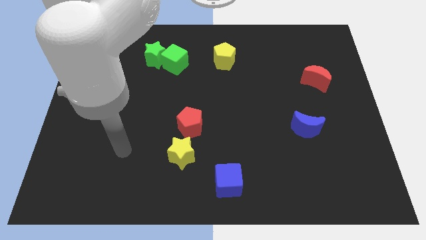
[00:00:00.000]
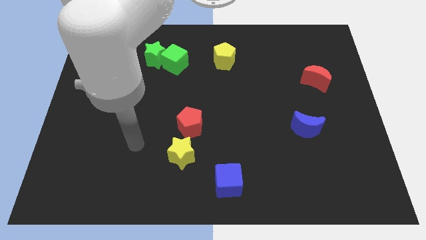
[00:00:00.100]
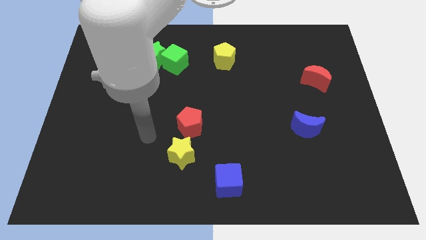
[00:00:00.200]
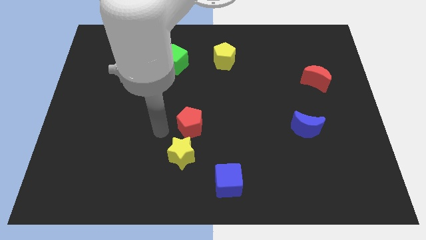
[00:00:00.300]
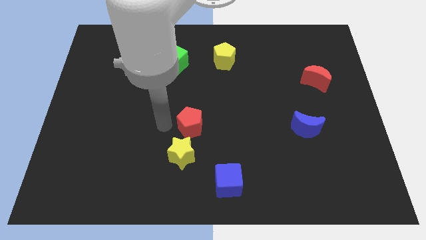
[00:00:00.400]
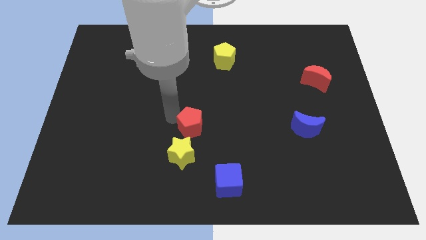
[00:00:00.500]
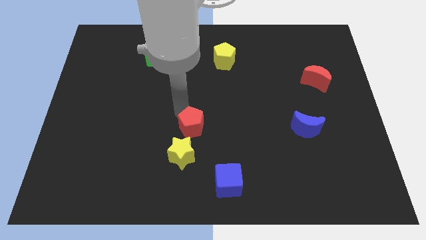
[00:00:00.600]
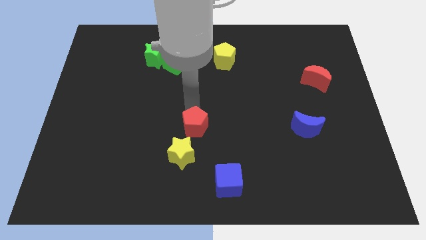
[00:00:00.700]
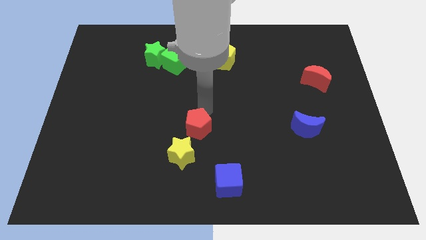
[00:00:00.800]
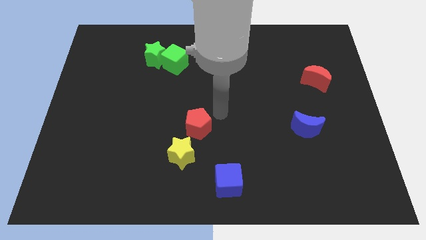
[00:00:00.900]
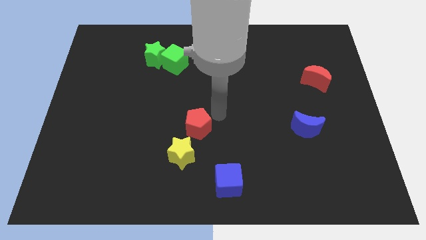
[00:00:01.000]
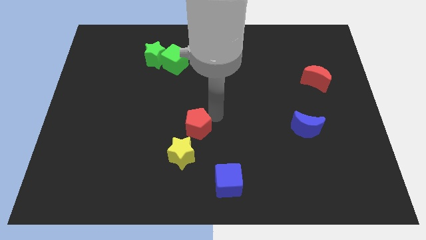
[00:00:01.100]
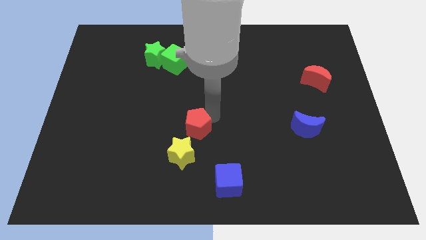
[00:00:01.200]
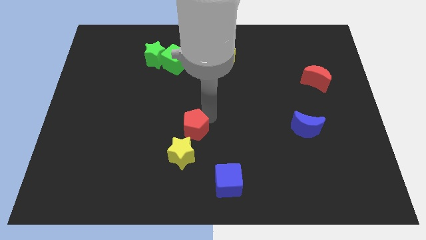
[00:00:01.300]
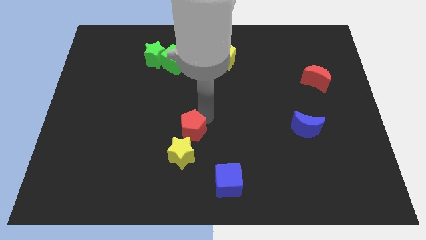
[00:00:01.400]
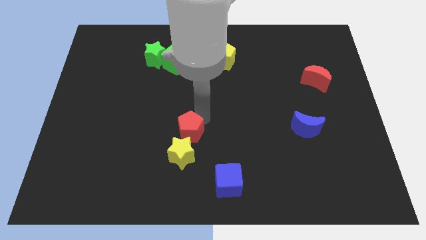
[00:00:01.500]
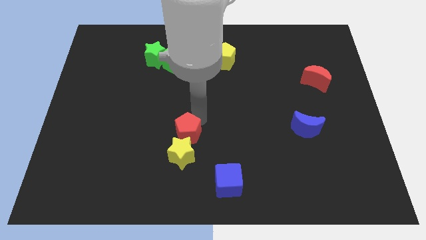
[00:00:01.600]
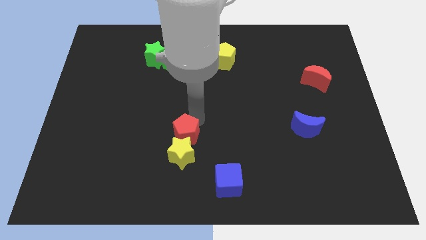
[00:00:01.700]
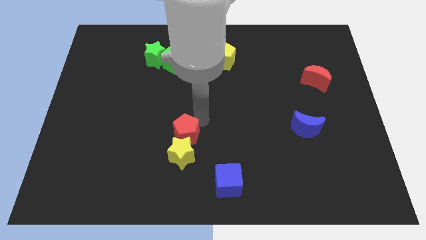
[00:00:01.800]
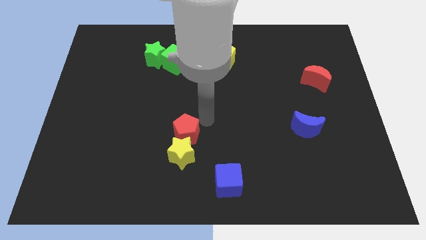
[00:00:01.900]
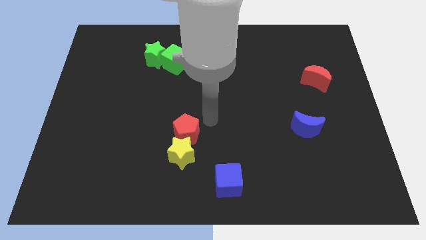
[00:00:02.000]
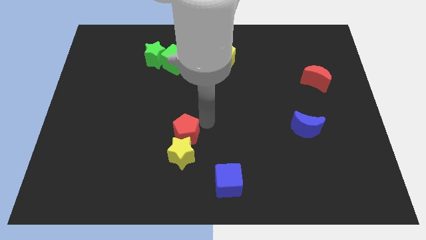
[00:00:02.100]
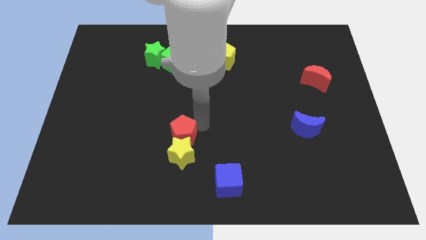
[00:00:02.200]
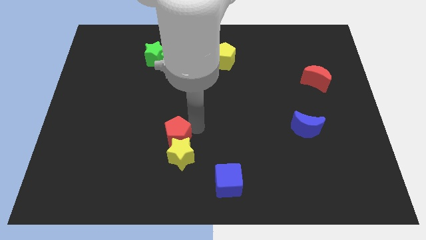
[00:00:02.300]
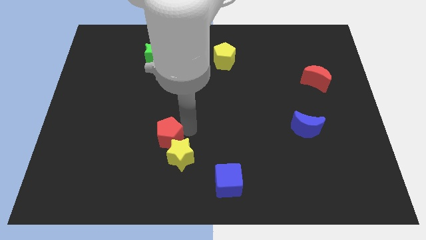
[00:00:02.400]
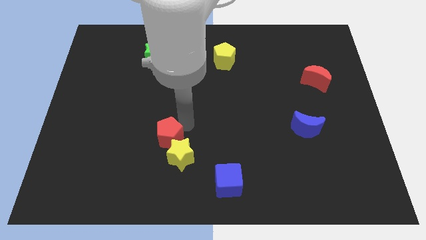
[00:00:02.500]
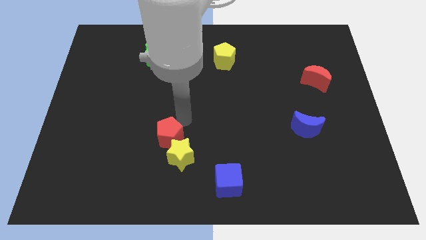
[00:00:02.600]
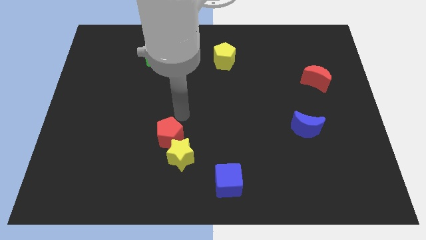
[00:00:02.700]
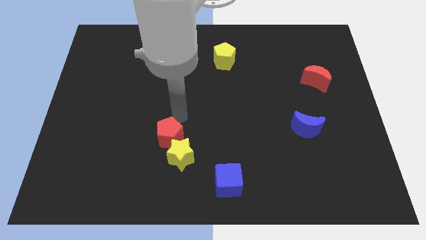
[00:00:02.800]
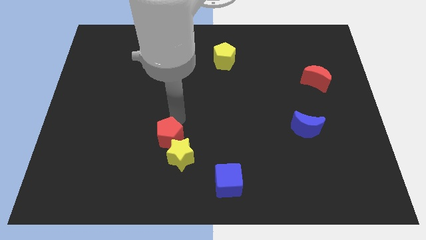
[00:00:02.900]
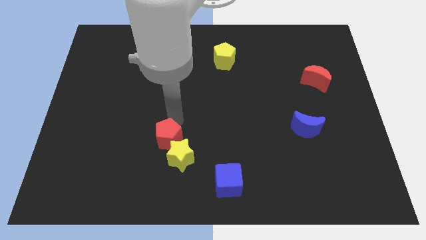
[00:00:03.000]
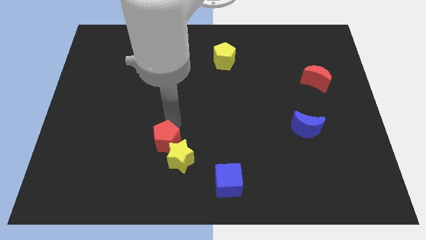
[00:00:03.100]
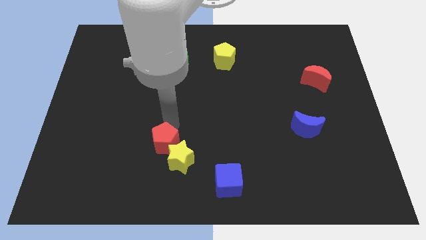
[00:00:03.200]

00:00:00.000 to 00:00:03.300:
push the red pentagon downwards and to the left a bit

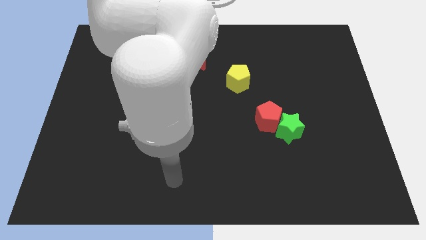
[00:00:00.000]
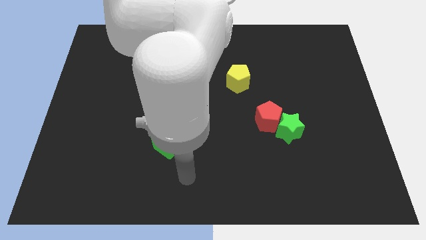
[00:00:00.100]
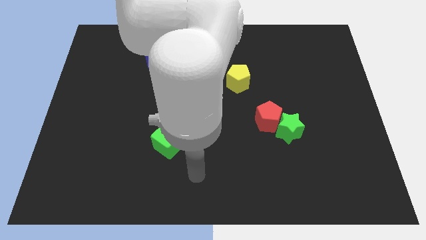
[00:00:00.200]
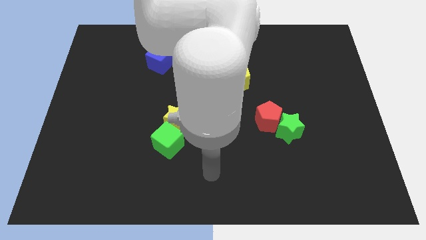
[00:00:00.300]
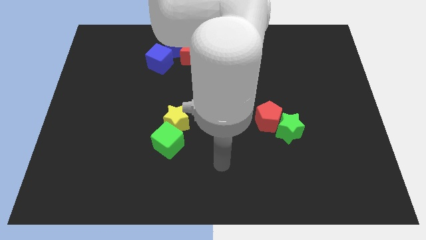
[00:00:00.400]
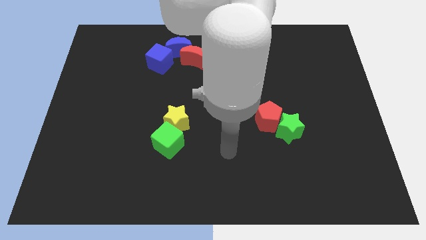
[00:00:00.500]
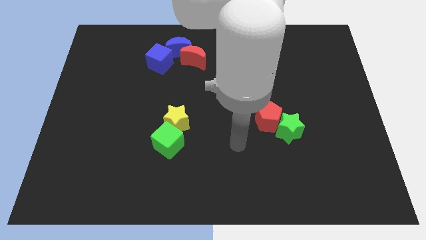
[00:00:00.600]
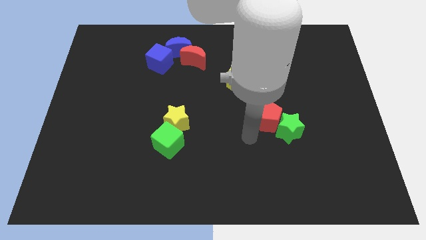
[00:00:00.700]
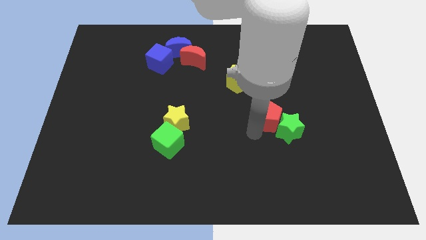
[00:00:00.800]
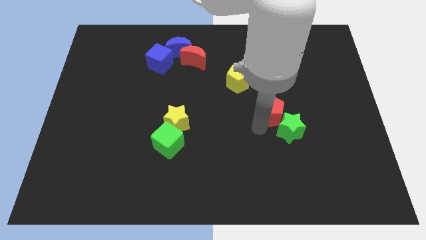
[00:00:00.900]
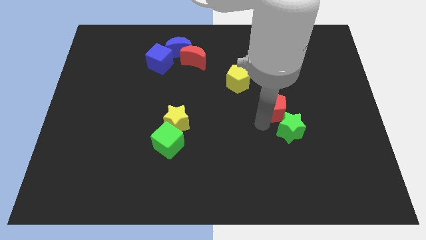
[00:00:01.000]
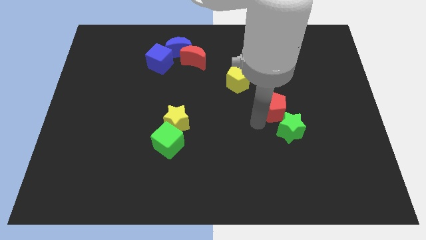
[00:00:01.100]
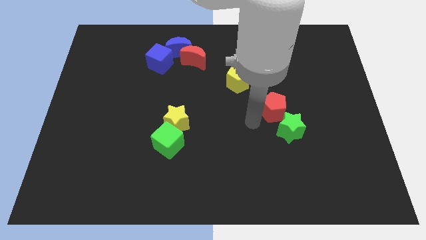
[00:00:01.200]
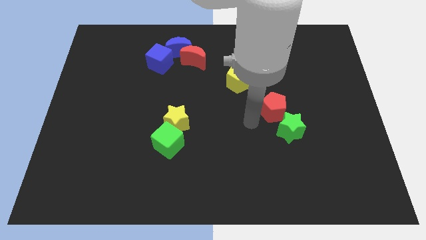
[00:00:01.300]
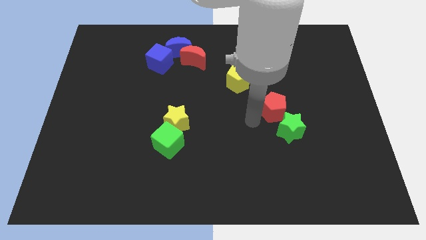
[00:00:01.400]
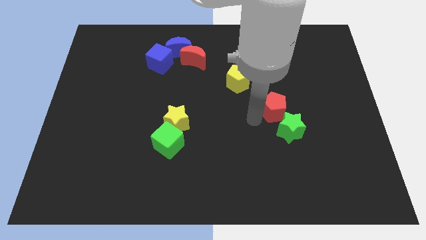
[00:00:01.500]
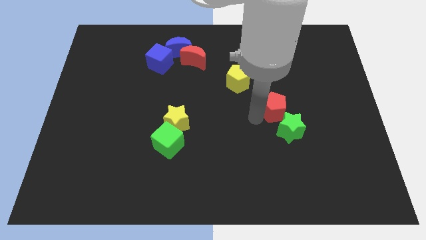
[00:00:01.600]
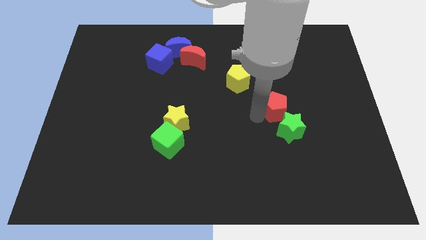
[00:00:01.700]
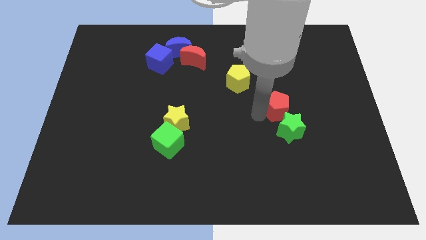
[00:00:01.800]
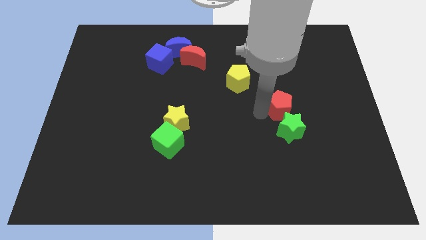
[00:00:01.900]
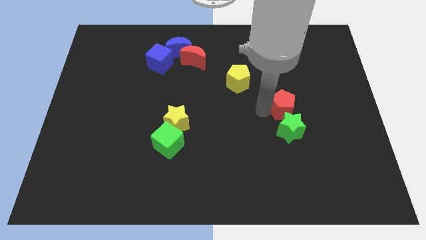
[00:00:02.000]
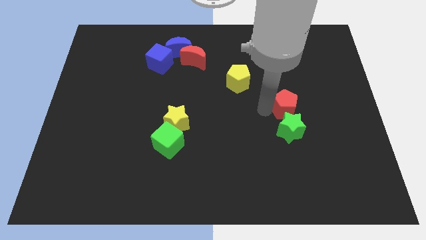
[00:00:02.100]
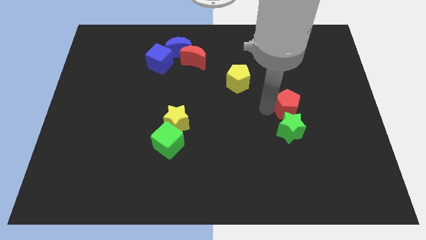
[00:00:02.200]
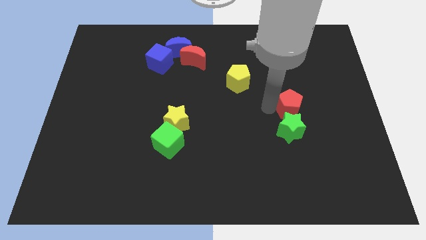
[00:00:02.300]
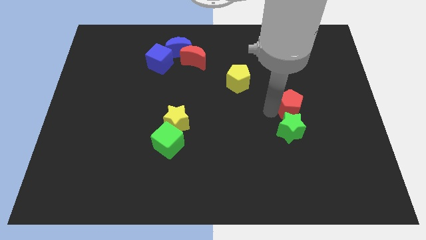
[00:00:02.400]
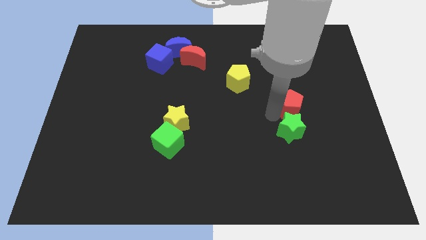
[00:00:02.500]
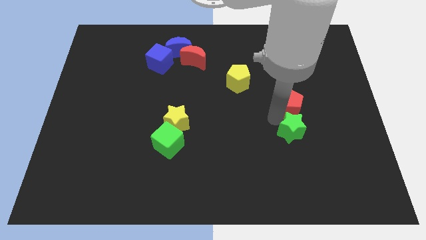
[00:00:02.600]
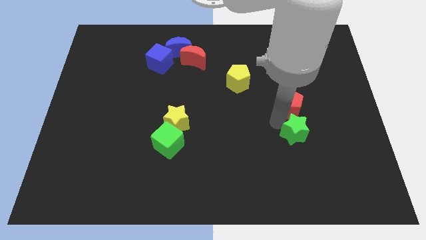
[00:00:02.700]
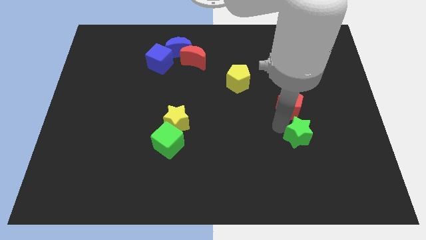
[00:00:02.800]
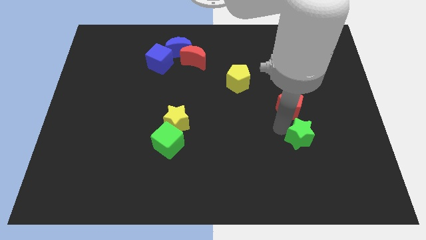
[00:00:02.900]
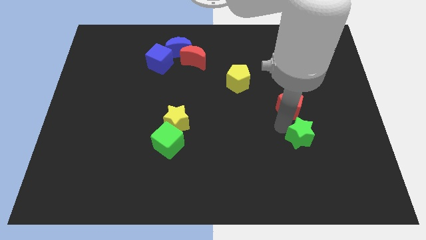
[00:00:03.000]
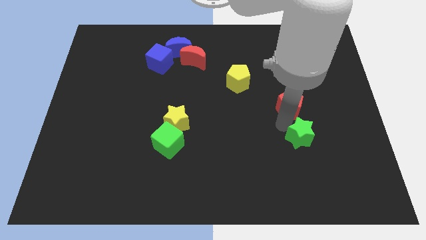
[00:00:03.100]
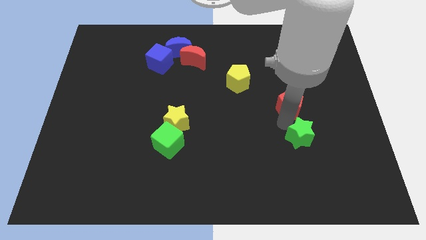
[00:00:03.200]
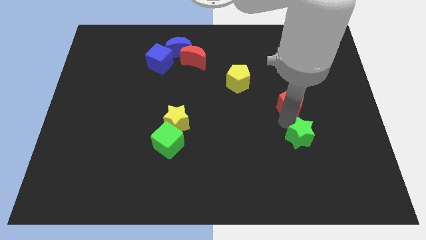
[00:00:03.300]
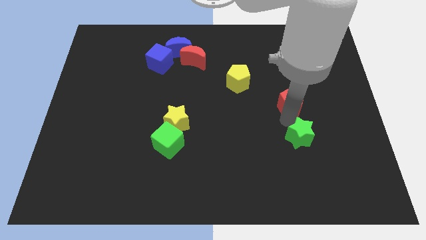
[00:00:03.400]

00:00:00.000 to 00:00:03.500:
slightly move the red pentagon up and then to the right

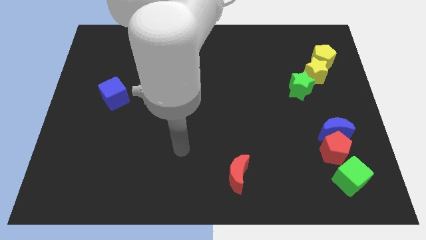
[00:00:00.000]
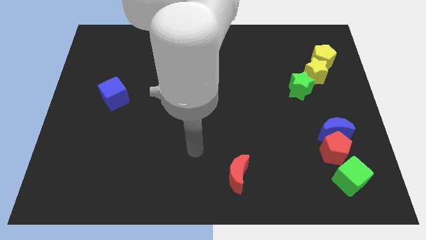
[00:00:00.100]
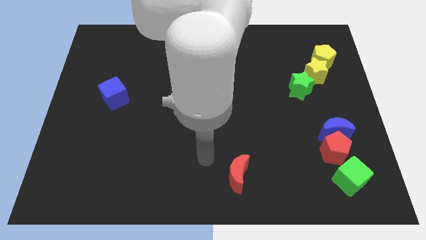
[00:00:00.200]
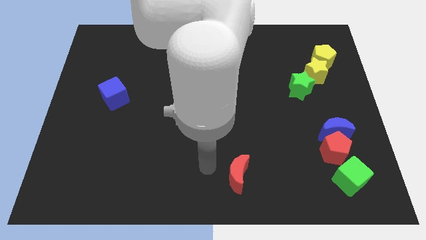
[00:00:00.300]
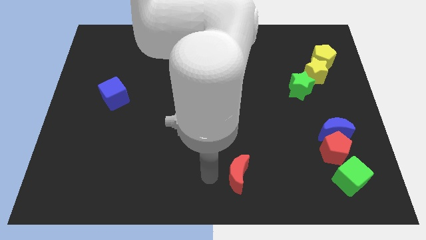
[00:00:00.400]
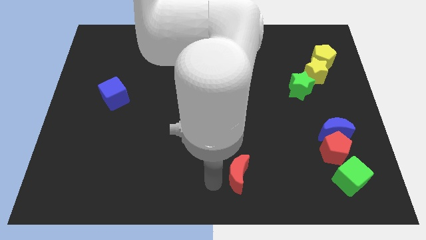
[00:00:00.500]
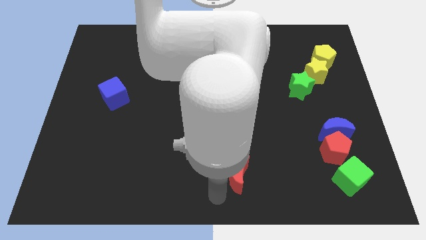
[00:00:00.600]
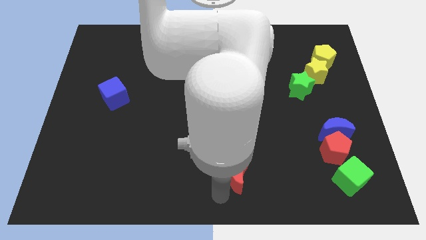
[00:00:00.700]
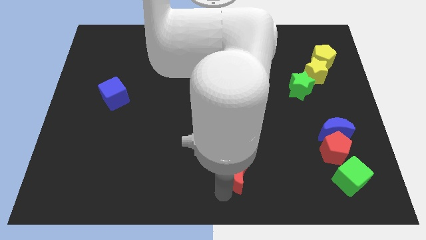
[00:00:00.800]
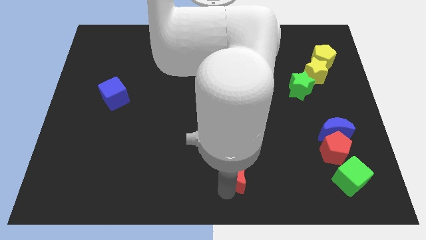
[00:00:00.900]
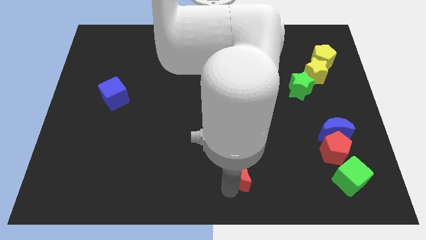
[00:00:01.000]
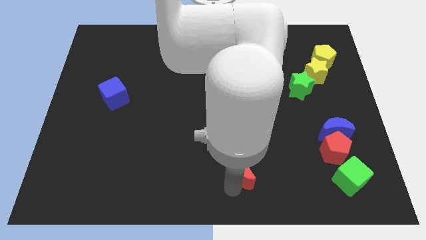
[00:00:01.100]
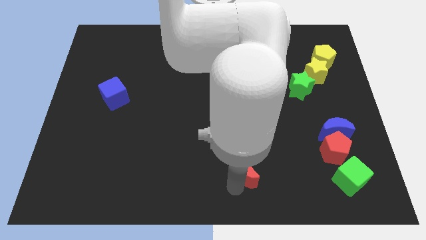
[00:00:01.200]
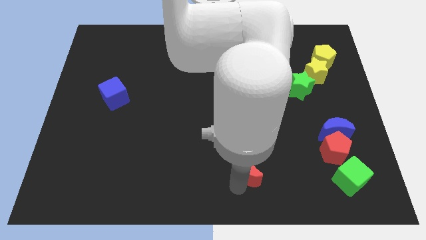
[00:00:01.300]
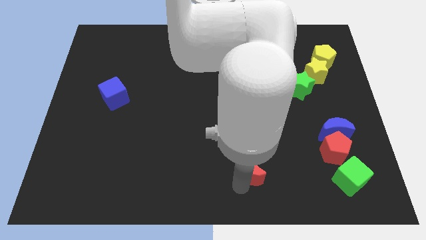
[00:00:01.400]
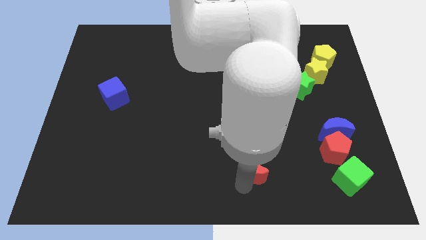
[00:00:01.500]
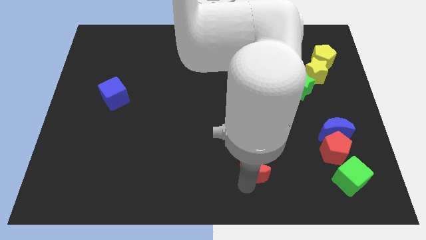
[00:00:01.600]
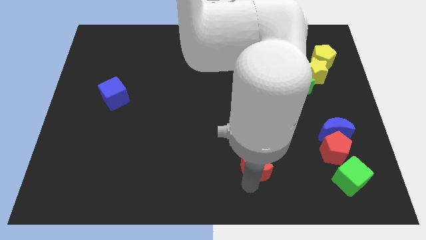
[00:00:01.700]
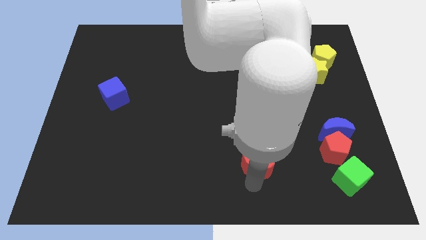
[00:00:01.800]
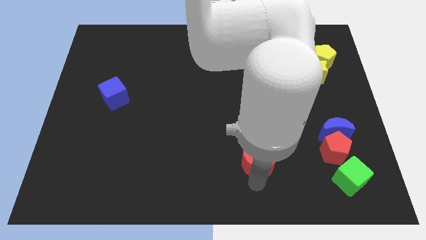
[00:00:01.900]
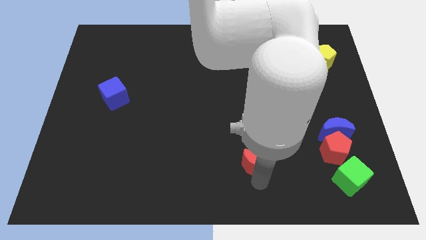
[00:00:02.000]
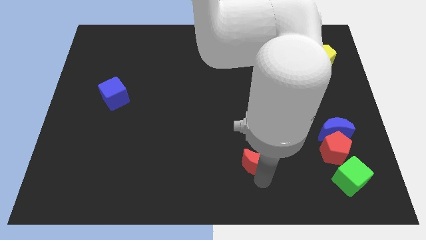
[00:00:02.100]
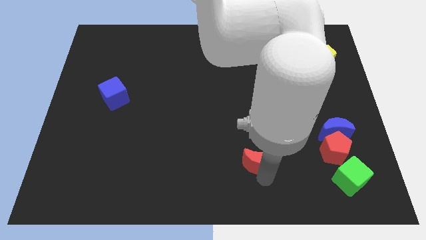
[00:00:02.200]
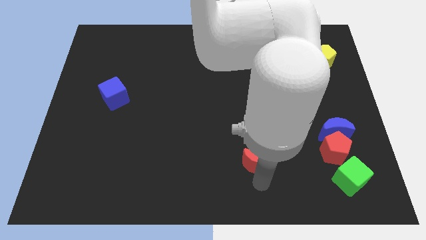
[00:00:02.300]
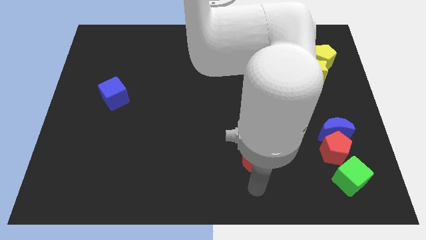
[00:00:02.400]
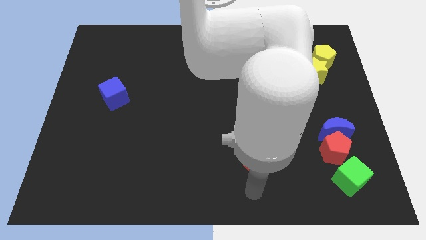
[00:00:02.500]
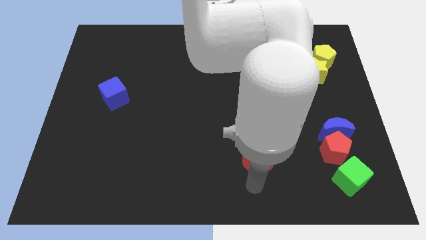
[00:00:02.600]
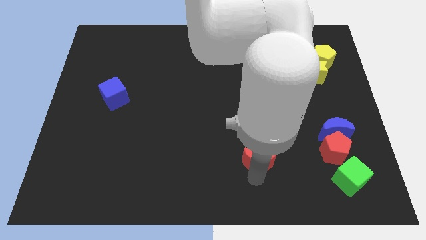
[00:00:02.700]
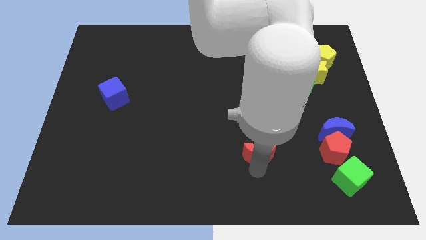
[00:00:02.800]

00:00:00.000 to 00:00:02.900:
push the red moon a bit upwards and to the right diagonally
